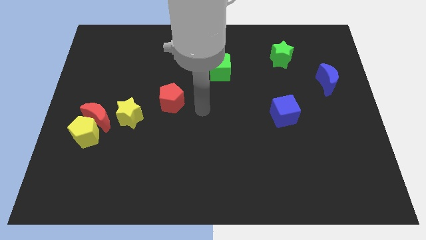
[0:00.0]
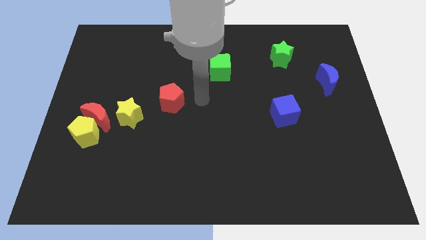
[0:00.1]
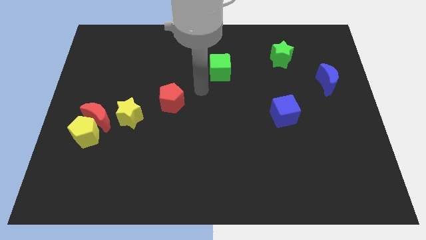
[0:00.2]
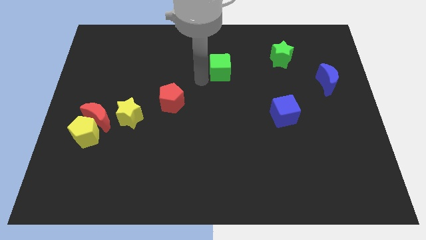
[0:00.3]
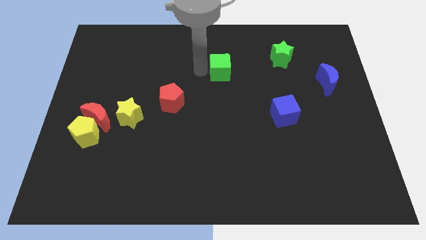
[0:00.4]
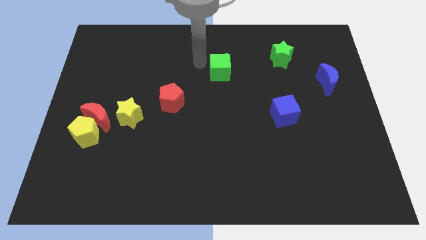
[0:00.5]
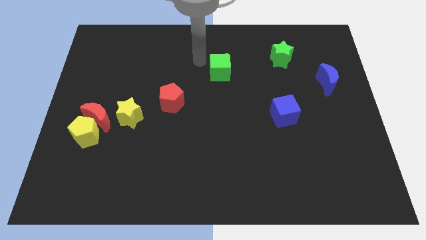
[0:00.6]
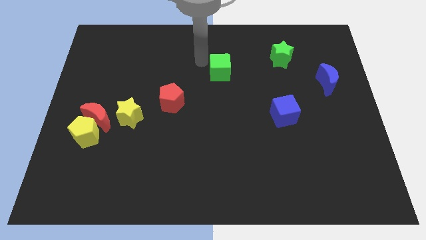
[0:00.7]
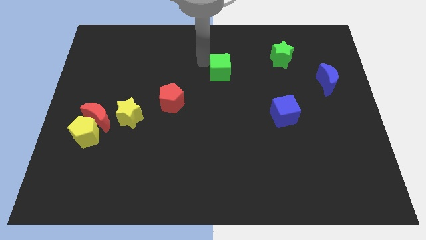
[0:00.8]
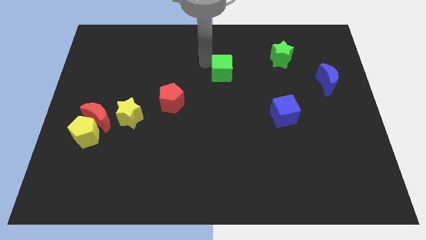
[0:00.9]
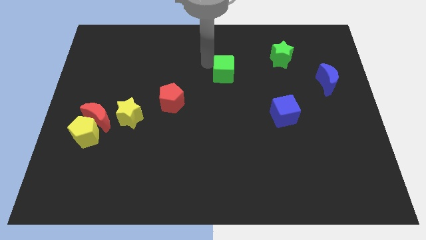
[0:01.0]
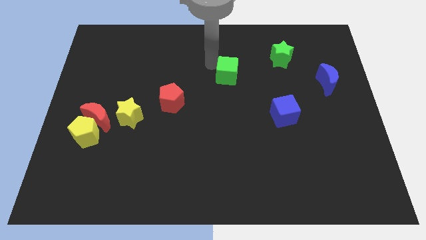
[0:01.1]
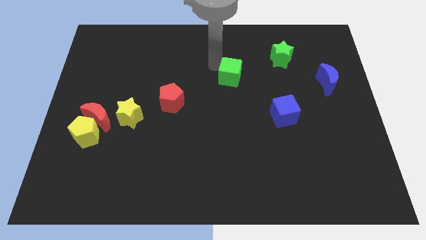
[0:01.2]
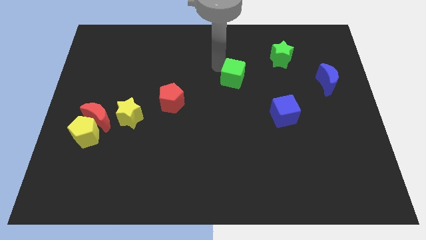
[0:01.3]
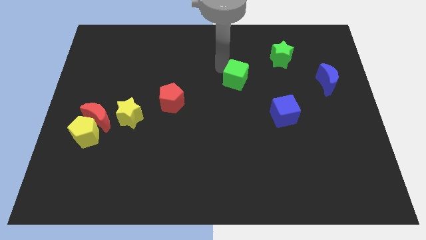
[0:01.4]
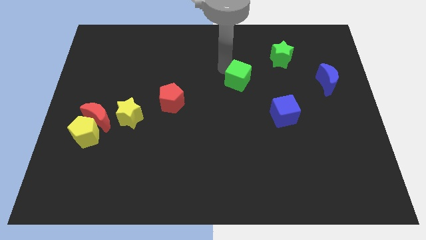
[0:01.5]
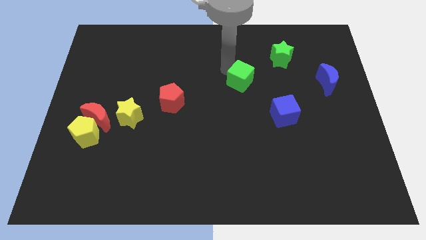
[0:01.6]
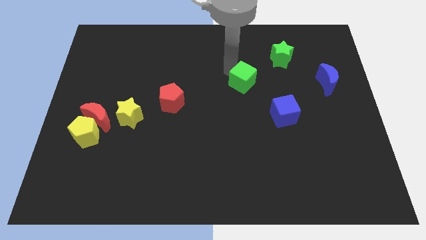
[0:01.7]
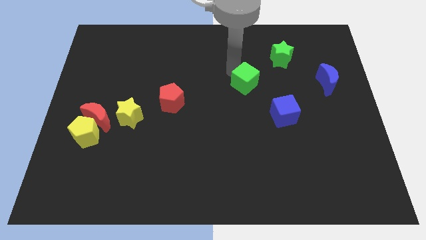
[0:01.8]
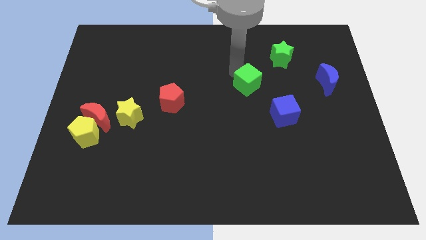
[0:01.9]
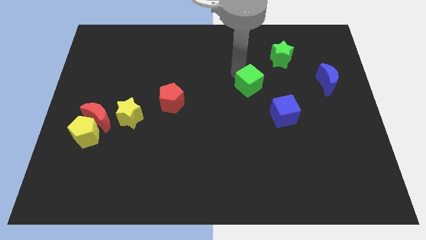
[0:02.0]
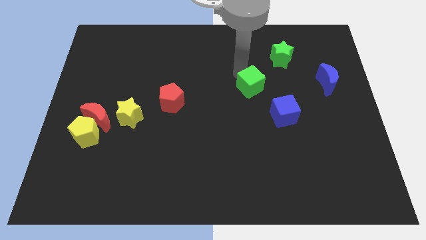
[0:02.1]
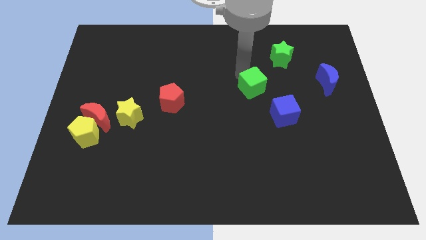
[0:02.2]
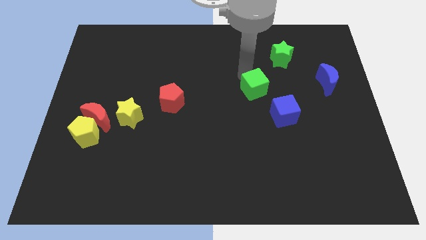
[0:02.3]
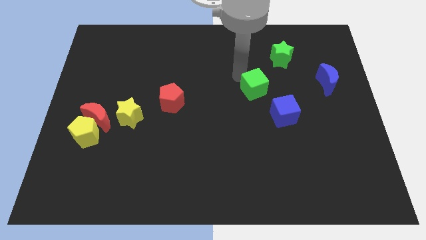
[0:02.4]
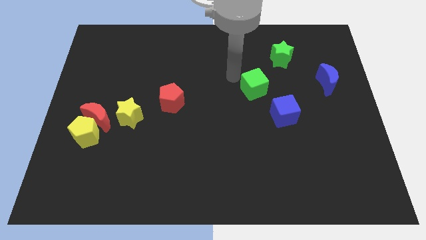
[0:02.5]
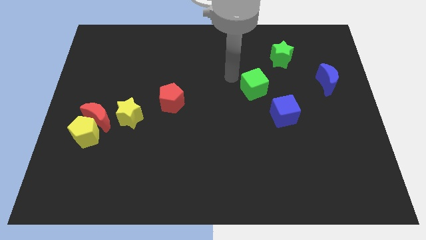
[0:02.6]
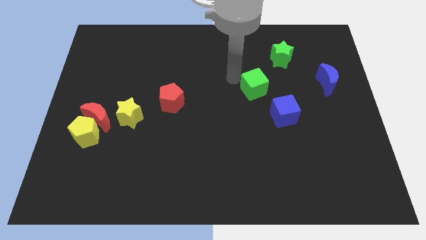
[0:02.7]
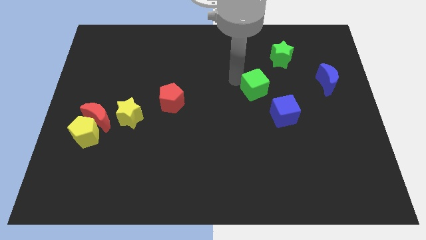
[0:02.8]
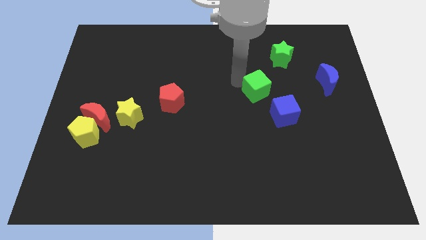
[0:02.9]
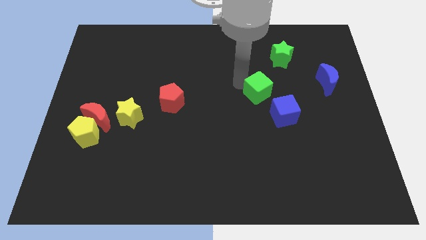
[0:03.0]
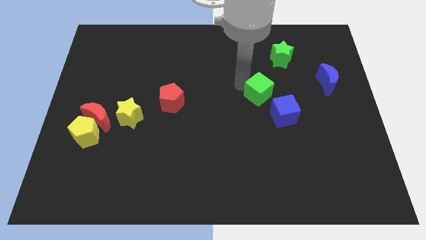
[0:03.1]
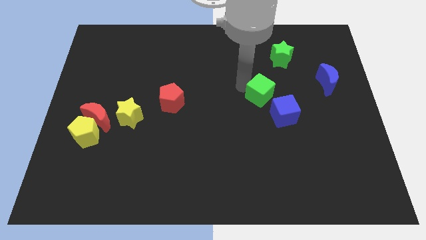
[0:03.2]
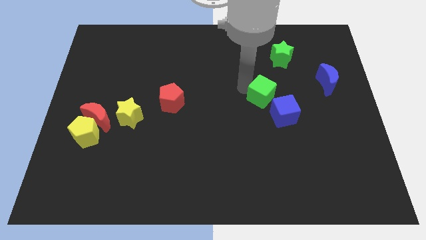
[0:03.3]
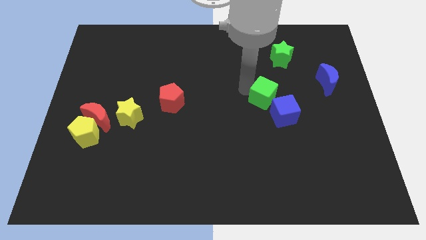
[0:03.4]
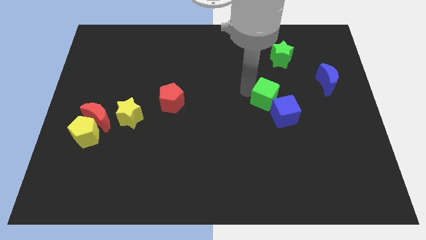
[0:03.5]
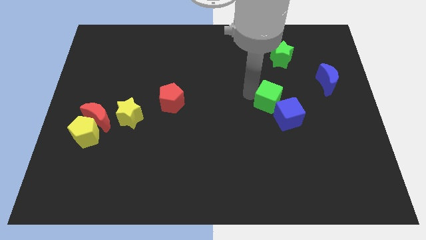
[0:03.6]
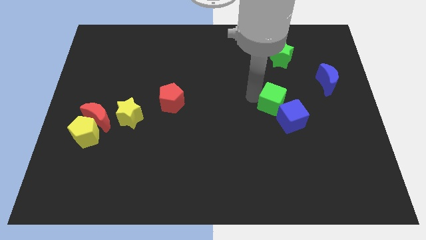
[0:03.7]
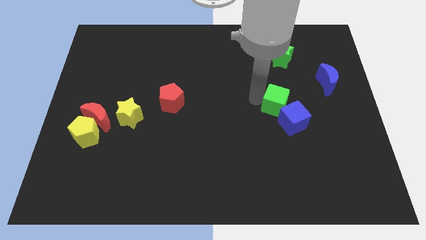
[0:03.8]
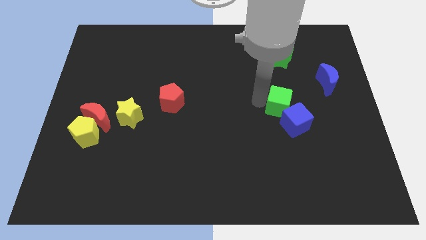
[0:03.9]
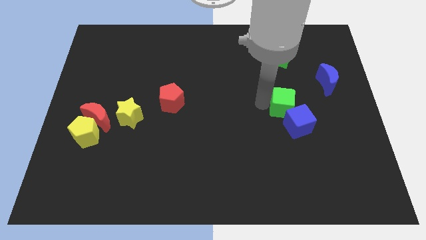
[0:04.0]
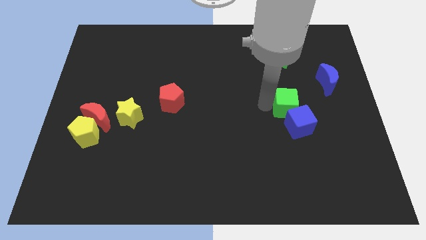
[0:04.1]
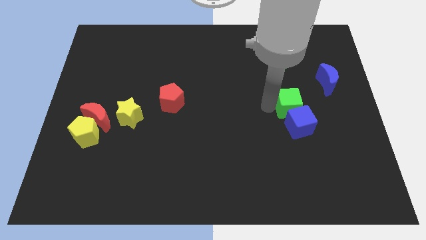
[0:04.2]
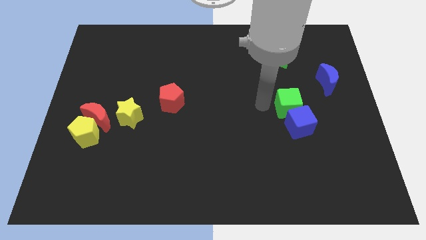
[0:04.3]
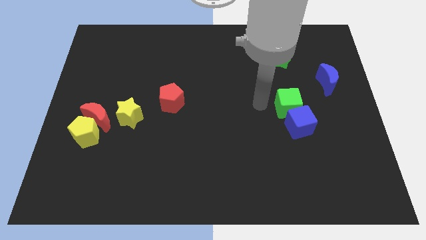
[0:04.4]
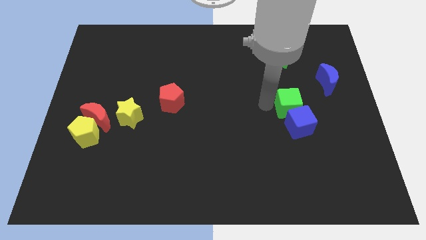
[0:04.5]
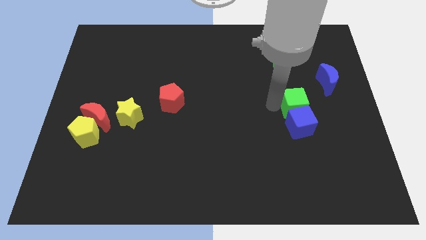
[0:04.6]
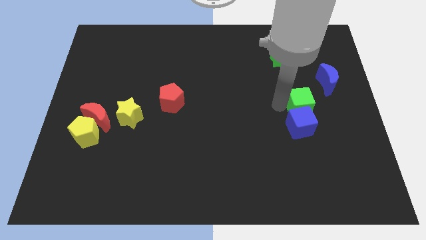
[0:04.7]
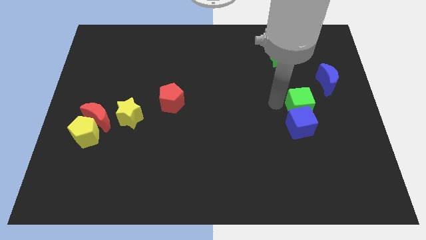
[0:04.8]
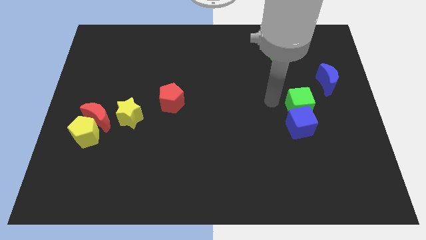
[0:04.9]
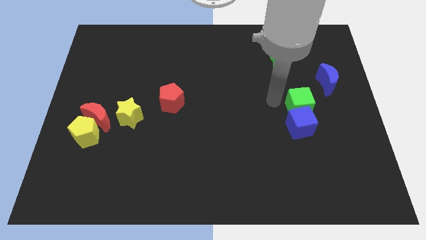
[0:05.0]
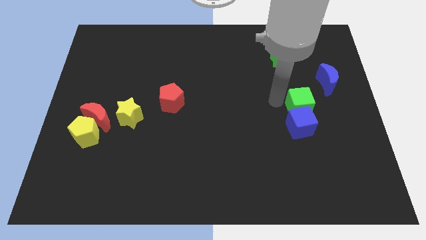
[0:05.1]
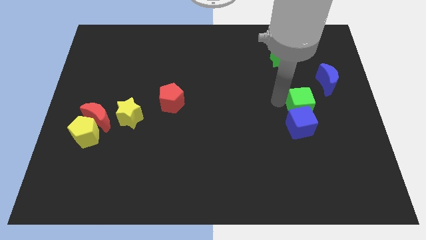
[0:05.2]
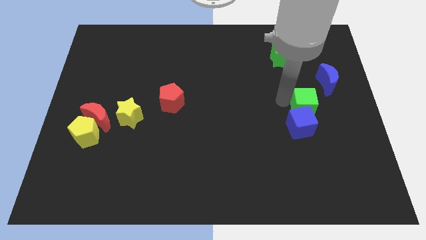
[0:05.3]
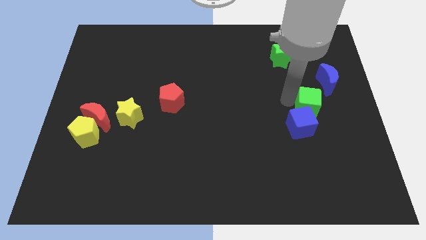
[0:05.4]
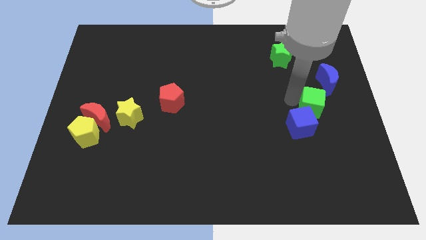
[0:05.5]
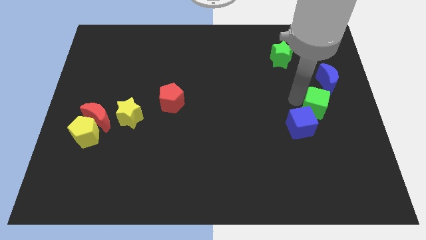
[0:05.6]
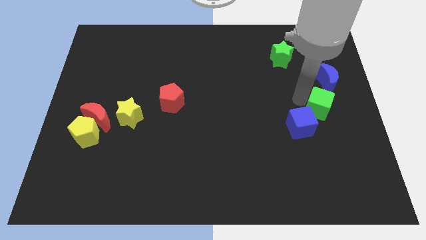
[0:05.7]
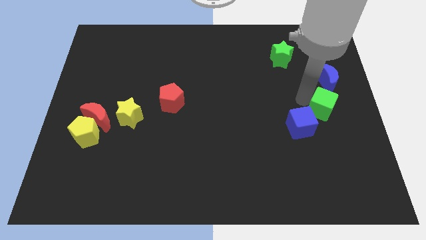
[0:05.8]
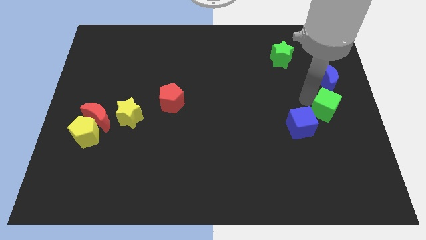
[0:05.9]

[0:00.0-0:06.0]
move the green cube just right of the blue cube
